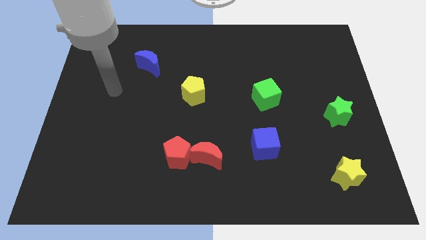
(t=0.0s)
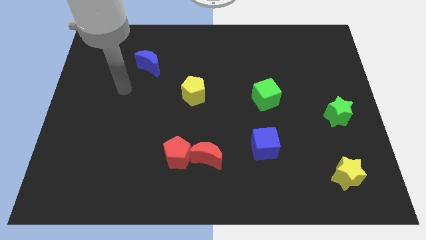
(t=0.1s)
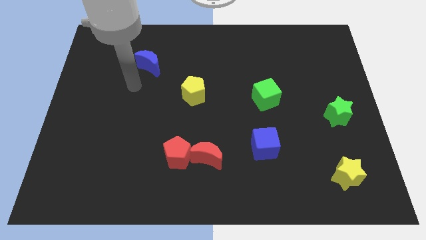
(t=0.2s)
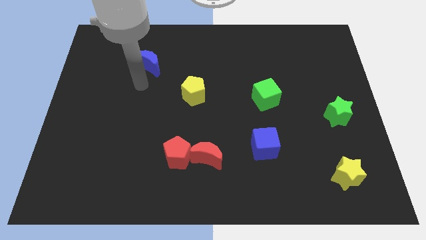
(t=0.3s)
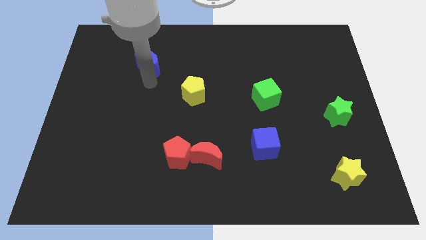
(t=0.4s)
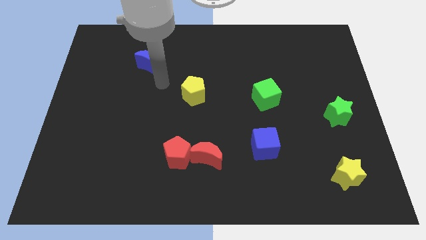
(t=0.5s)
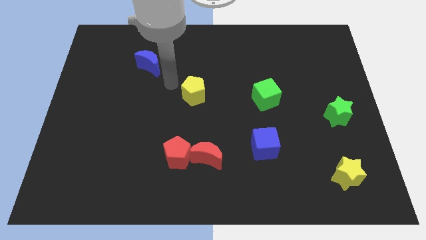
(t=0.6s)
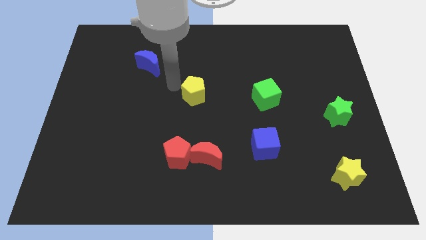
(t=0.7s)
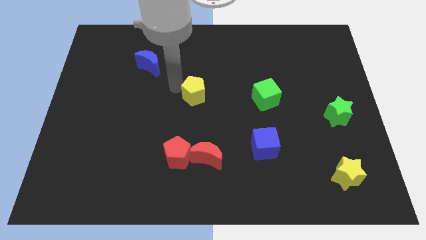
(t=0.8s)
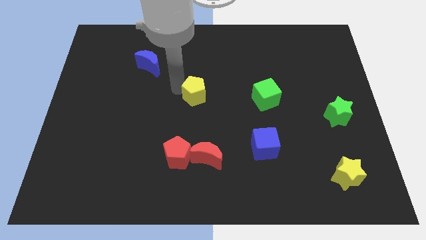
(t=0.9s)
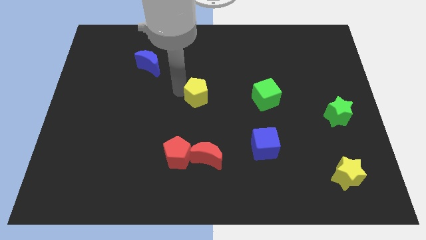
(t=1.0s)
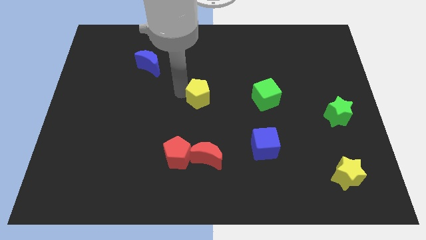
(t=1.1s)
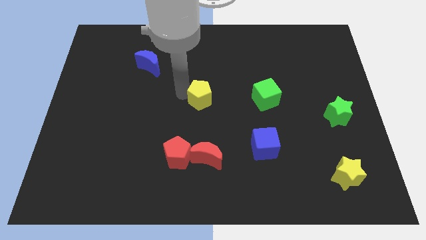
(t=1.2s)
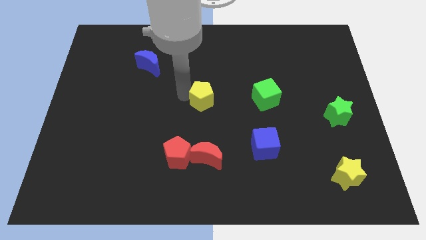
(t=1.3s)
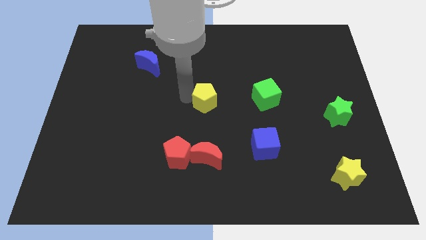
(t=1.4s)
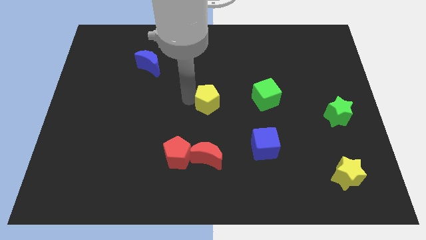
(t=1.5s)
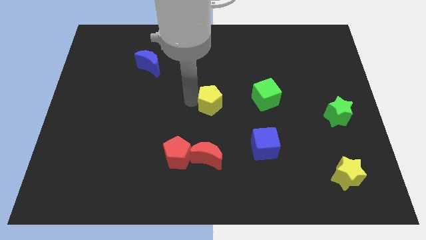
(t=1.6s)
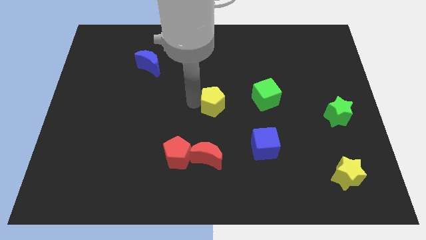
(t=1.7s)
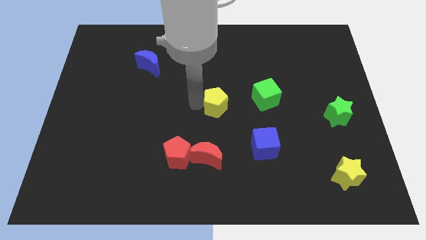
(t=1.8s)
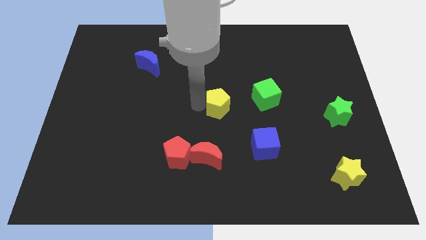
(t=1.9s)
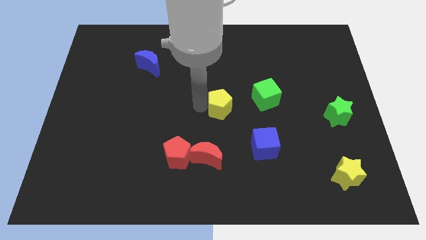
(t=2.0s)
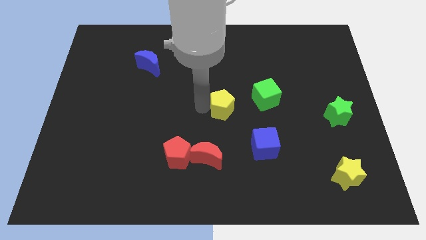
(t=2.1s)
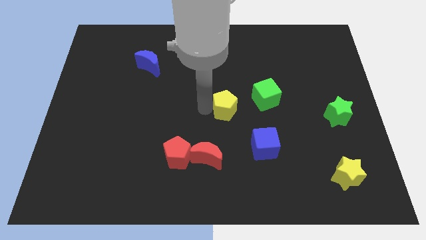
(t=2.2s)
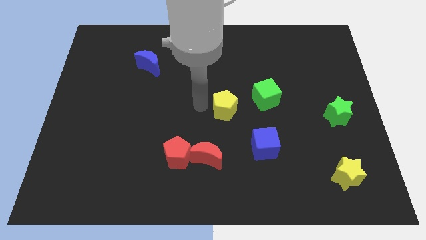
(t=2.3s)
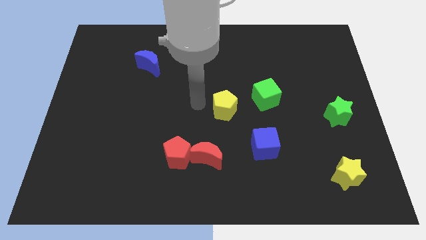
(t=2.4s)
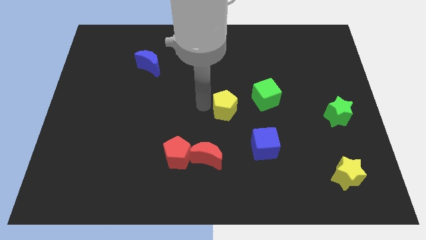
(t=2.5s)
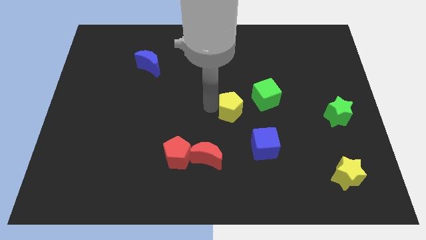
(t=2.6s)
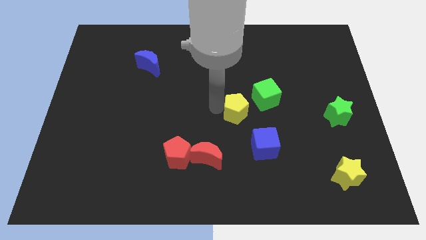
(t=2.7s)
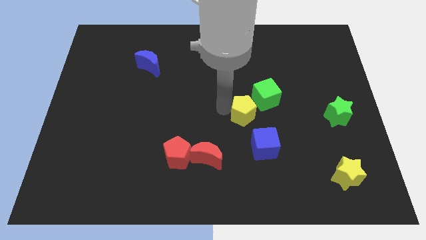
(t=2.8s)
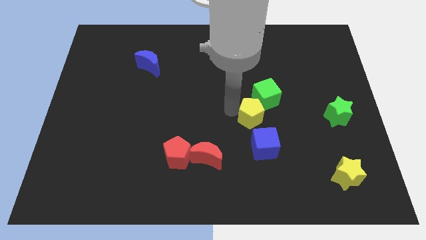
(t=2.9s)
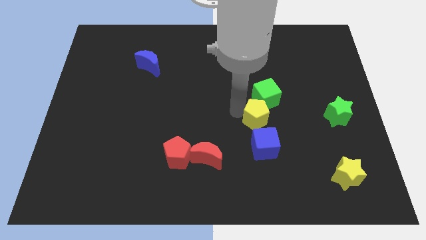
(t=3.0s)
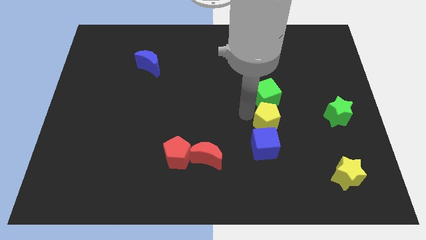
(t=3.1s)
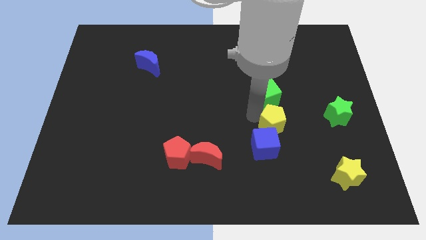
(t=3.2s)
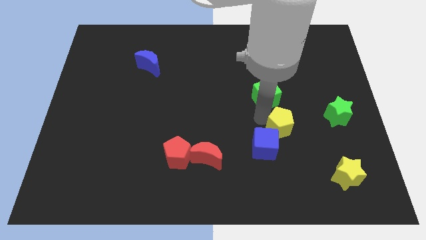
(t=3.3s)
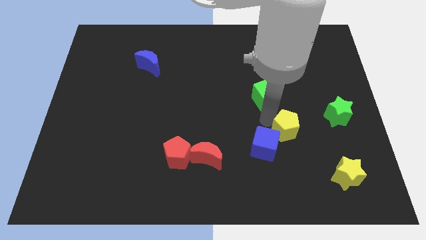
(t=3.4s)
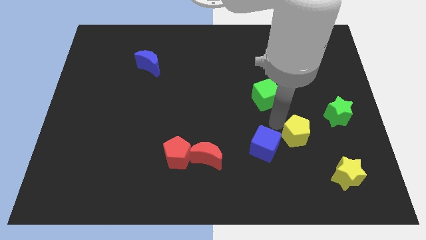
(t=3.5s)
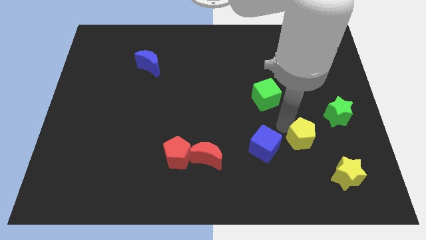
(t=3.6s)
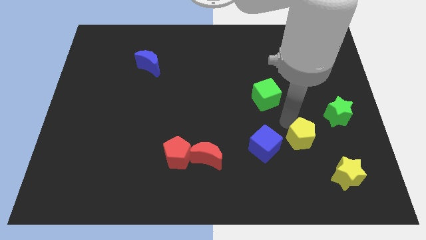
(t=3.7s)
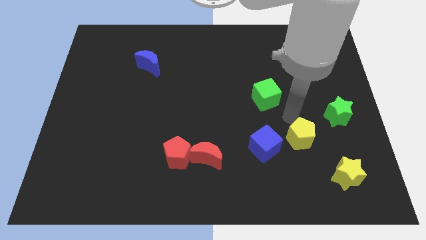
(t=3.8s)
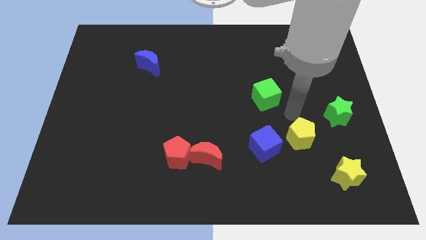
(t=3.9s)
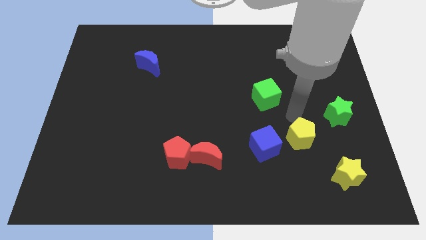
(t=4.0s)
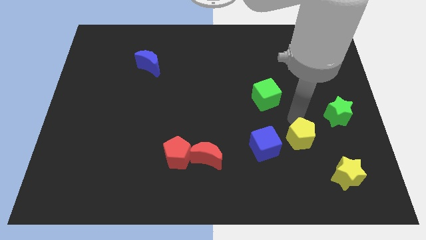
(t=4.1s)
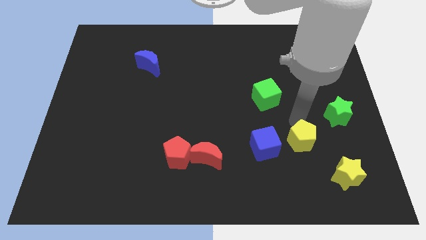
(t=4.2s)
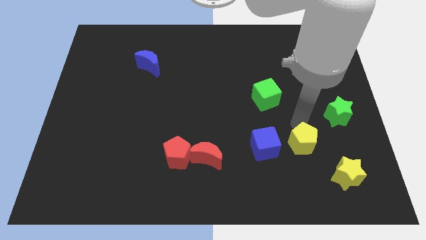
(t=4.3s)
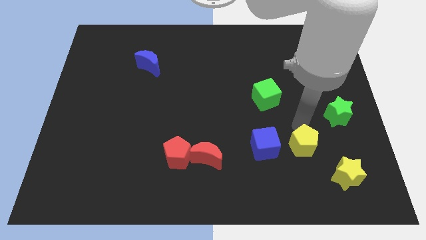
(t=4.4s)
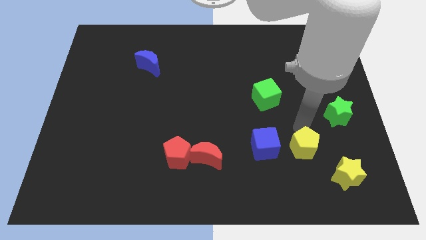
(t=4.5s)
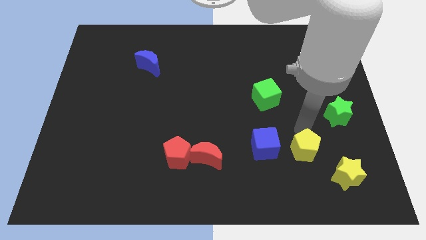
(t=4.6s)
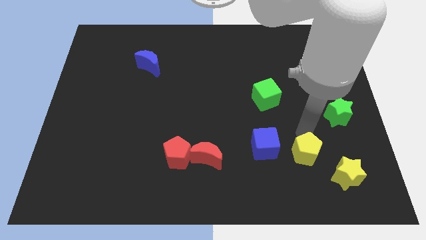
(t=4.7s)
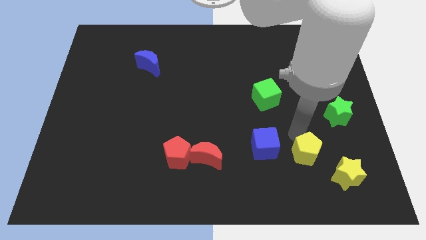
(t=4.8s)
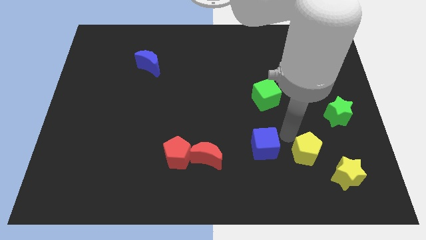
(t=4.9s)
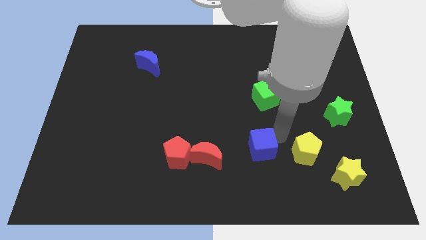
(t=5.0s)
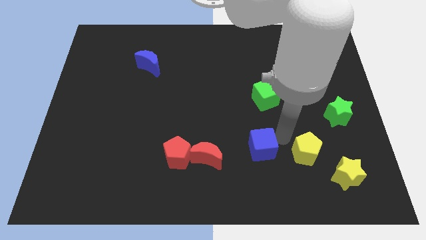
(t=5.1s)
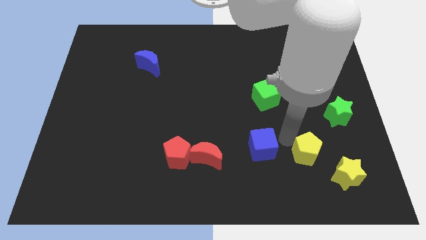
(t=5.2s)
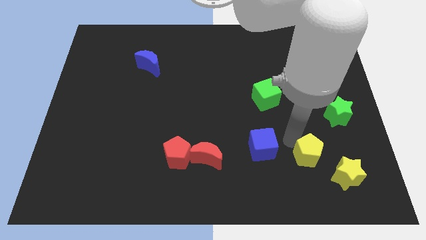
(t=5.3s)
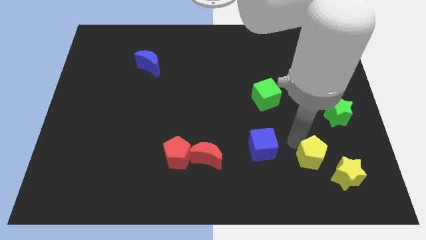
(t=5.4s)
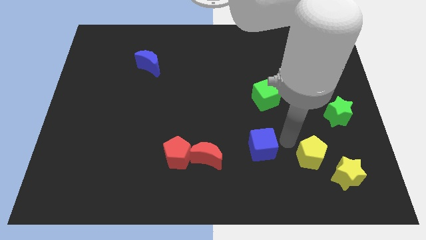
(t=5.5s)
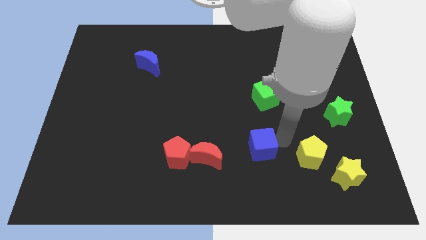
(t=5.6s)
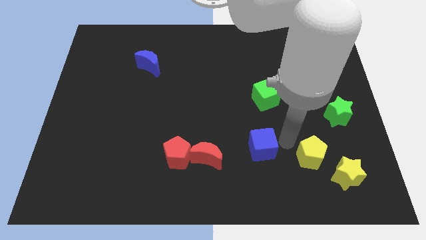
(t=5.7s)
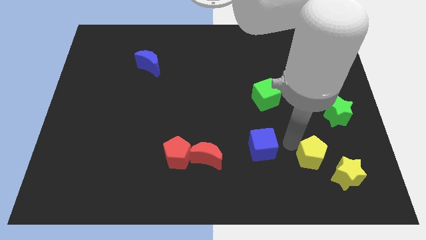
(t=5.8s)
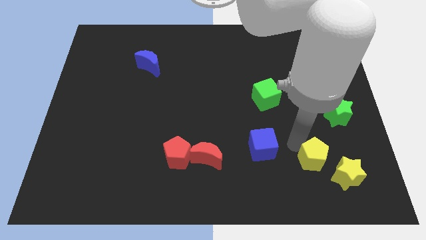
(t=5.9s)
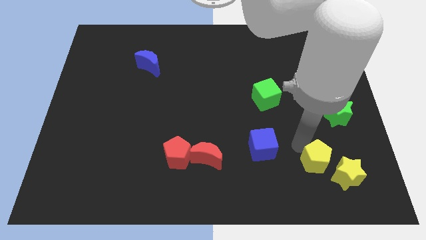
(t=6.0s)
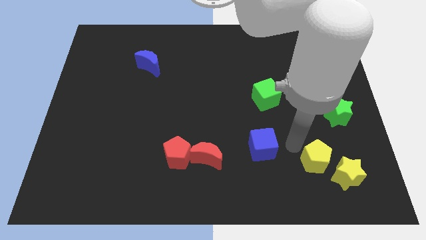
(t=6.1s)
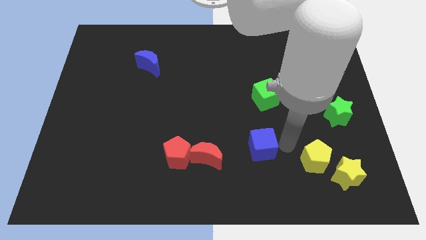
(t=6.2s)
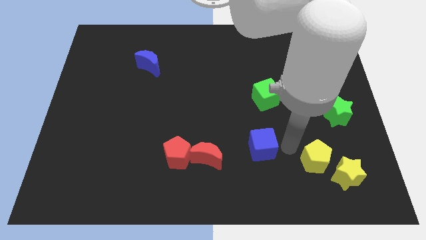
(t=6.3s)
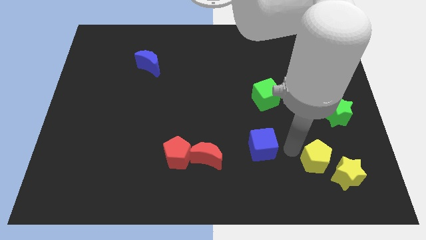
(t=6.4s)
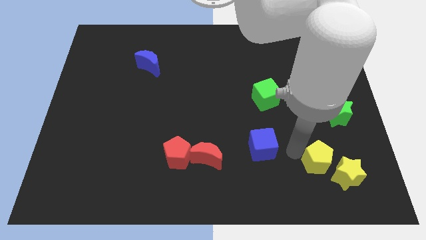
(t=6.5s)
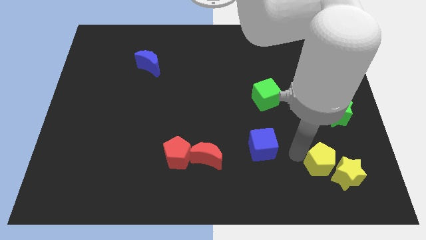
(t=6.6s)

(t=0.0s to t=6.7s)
slide the yellow pentagon close to the yellow star

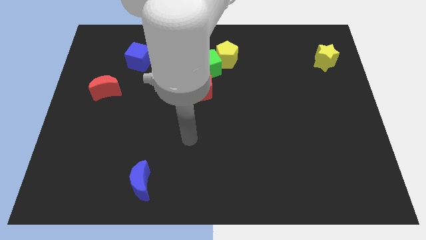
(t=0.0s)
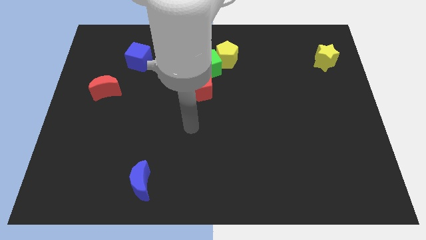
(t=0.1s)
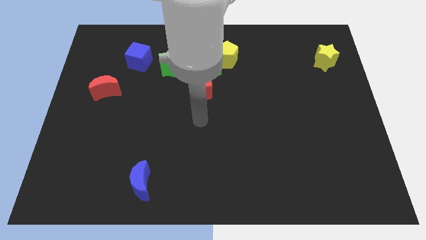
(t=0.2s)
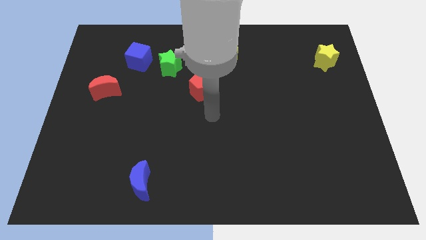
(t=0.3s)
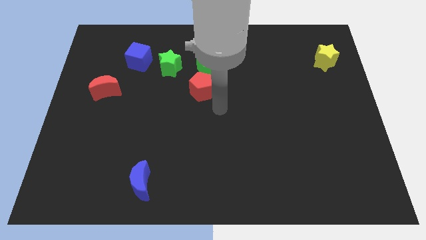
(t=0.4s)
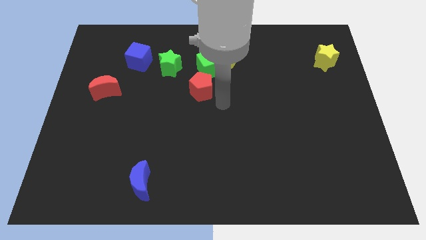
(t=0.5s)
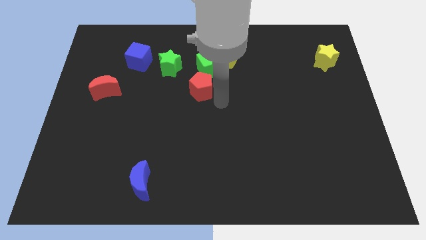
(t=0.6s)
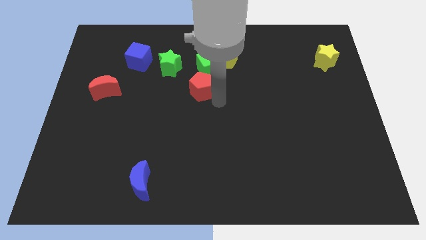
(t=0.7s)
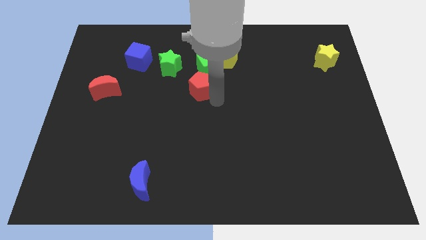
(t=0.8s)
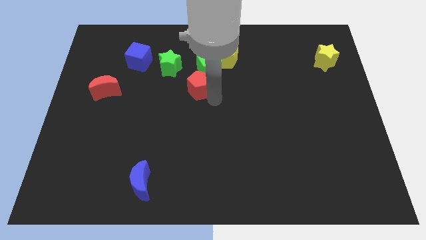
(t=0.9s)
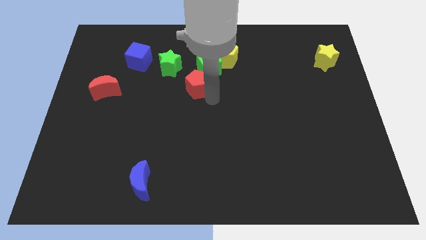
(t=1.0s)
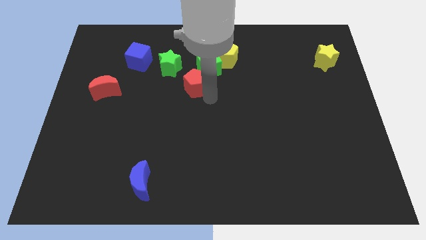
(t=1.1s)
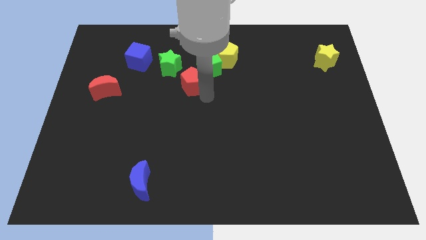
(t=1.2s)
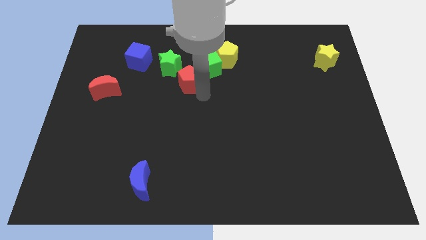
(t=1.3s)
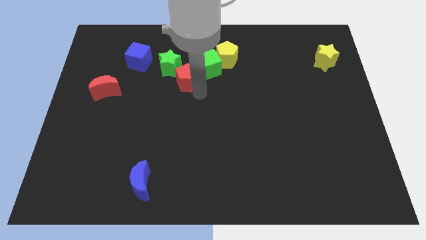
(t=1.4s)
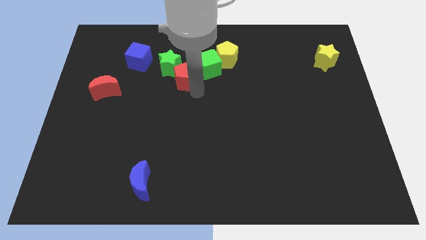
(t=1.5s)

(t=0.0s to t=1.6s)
push the red pentagon close to the green star
